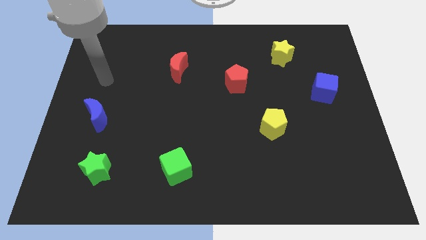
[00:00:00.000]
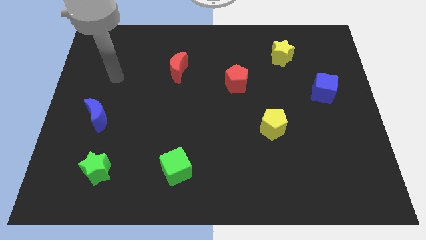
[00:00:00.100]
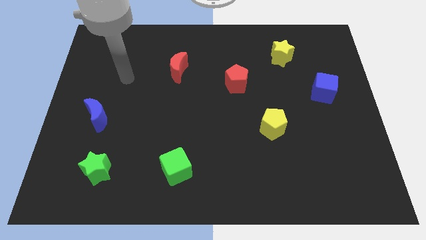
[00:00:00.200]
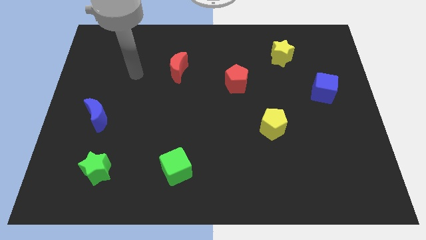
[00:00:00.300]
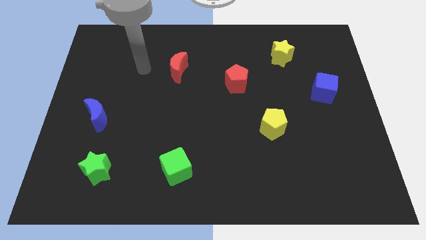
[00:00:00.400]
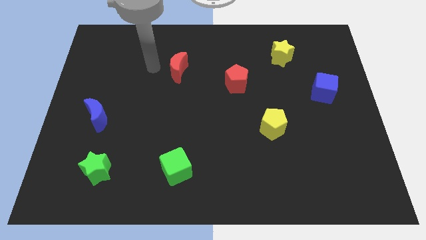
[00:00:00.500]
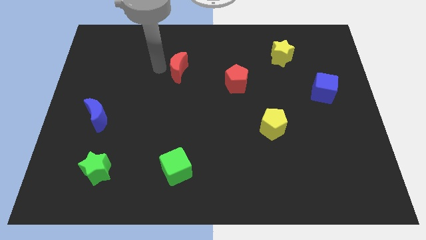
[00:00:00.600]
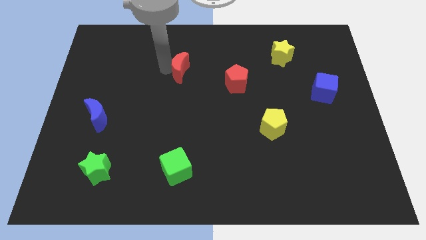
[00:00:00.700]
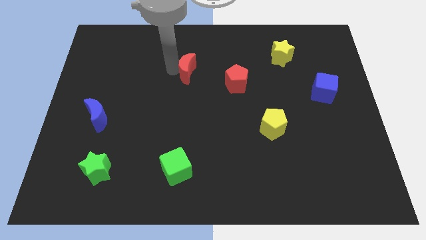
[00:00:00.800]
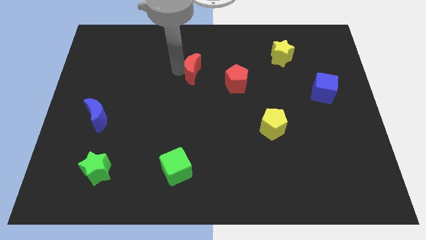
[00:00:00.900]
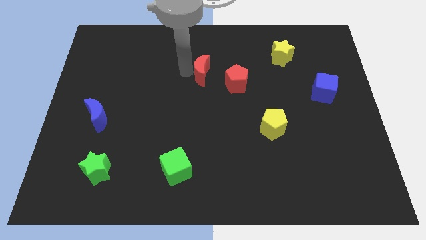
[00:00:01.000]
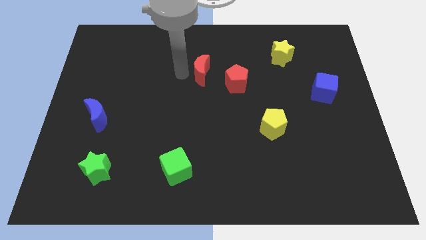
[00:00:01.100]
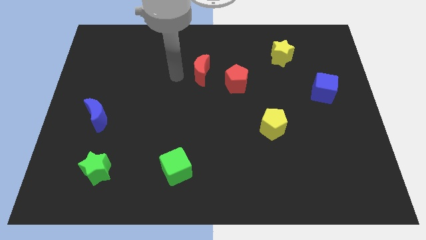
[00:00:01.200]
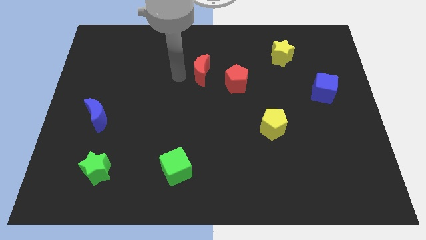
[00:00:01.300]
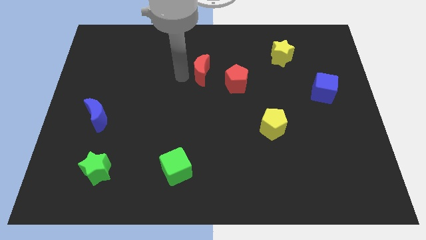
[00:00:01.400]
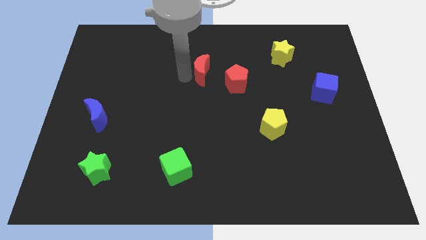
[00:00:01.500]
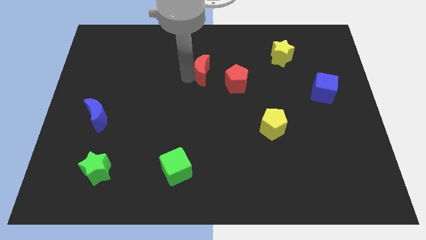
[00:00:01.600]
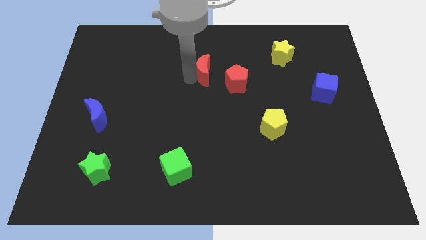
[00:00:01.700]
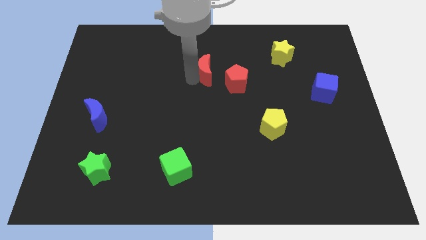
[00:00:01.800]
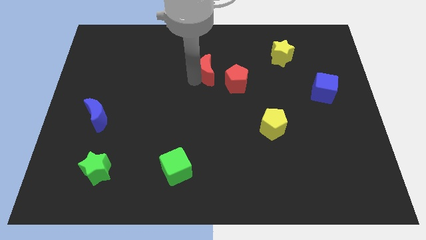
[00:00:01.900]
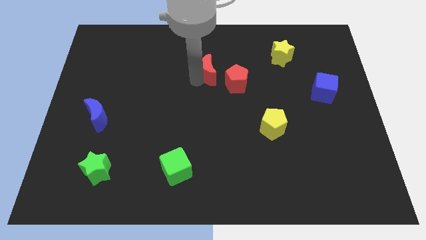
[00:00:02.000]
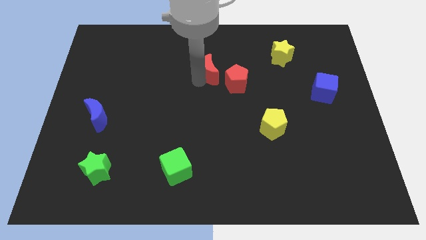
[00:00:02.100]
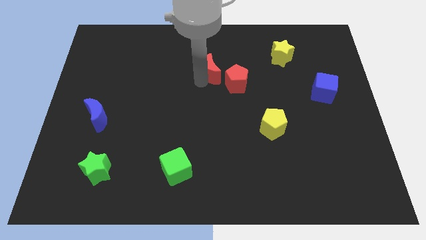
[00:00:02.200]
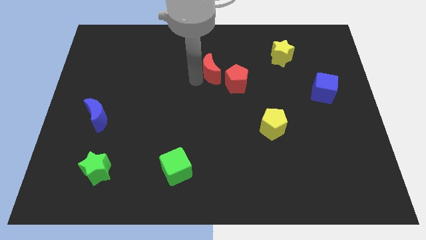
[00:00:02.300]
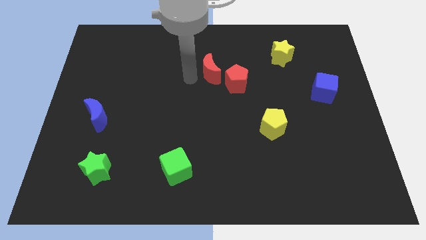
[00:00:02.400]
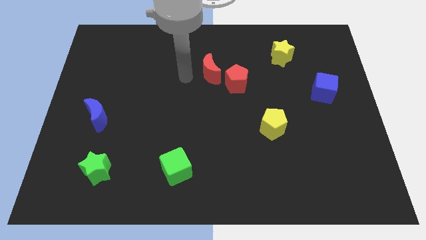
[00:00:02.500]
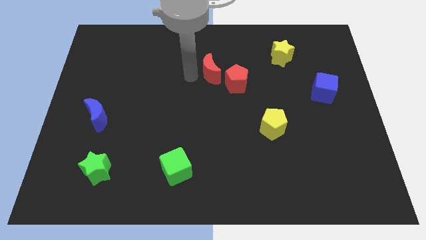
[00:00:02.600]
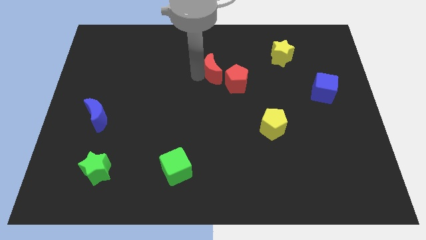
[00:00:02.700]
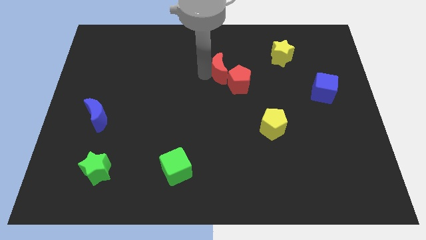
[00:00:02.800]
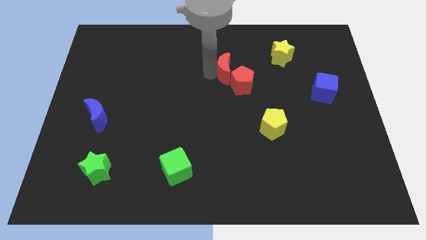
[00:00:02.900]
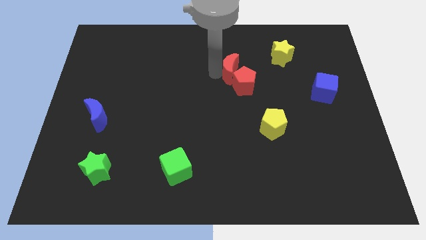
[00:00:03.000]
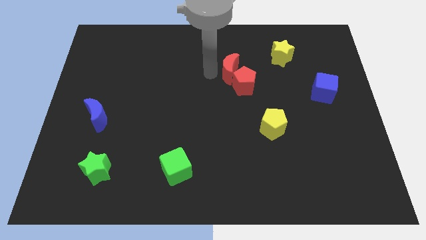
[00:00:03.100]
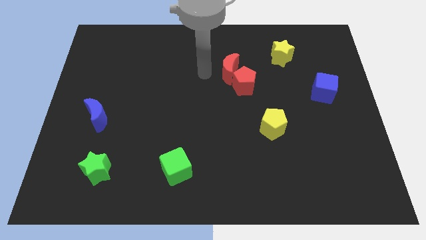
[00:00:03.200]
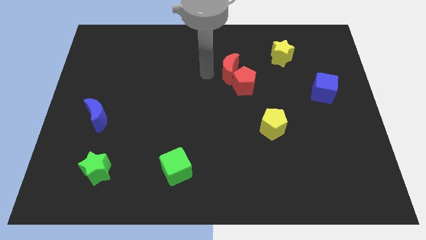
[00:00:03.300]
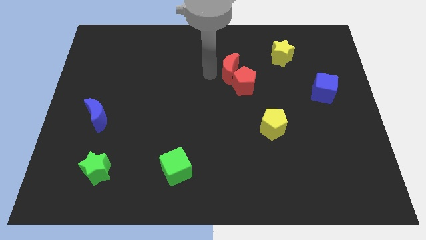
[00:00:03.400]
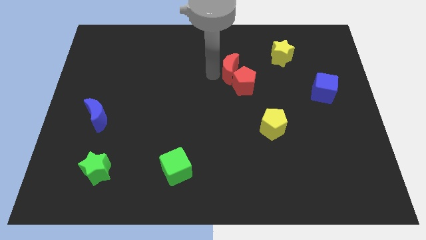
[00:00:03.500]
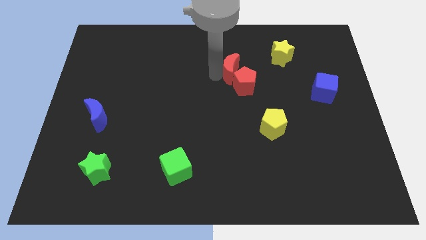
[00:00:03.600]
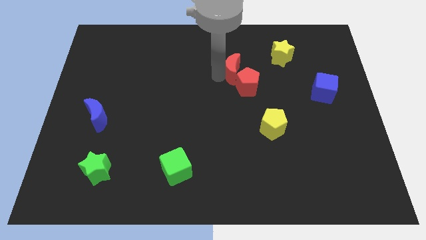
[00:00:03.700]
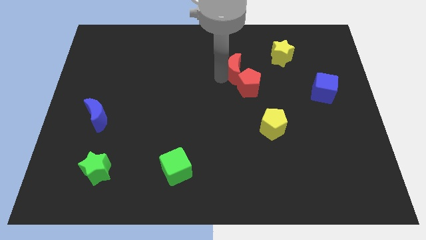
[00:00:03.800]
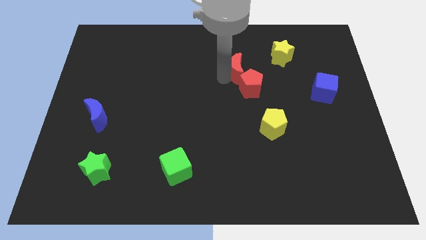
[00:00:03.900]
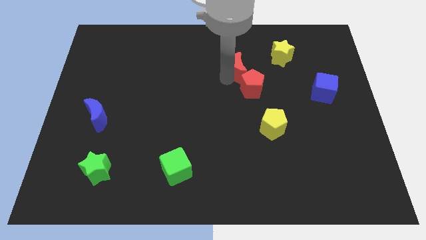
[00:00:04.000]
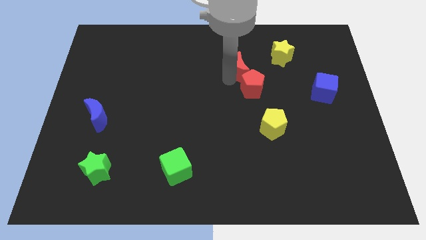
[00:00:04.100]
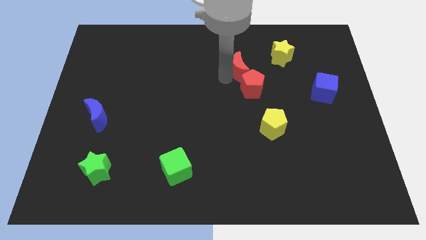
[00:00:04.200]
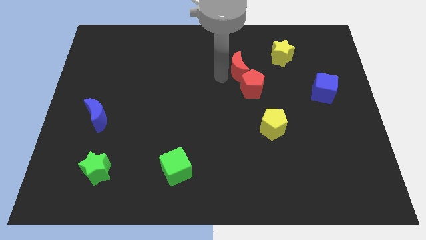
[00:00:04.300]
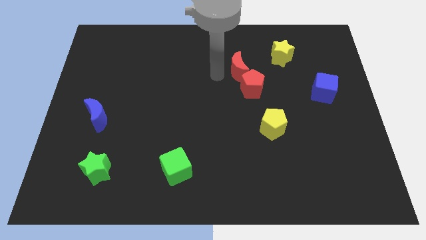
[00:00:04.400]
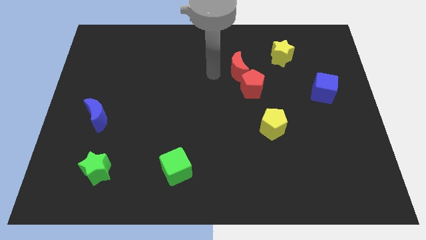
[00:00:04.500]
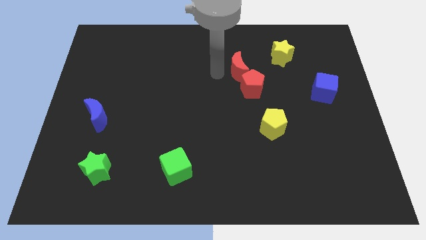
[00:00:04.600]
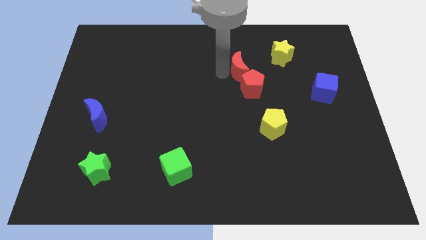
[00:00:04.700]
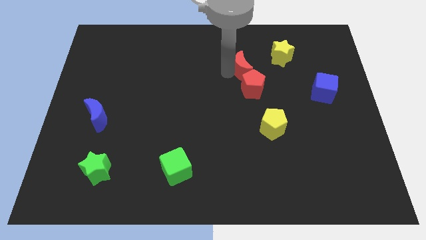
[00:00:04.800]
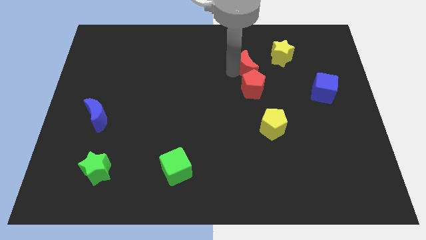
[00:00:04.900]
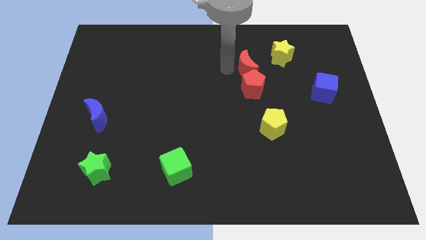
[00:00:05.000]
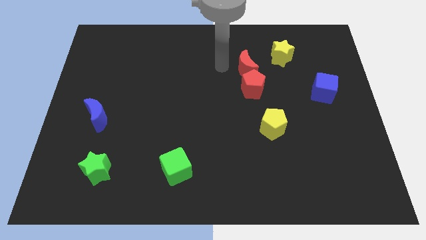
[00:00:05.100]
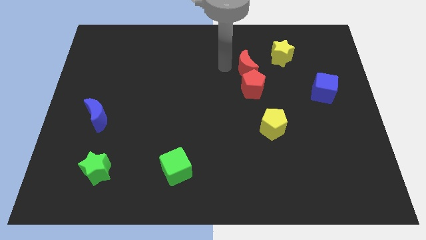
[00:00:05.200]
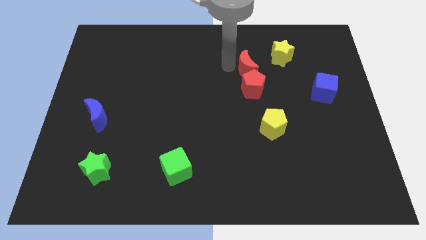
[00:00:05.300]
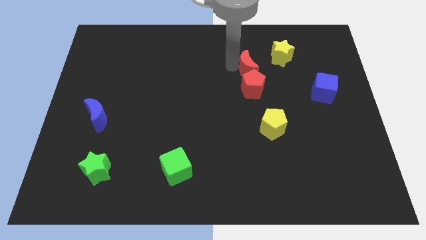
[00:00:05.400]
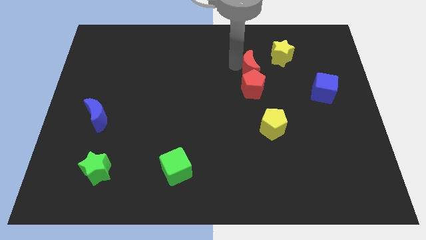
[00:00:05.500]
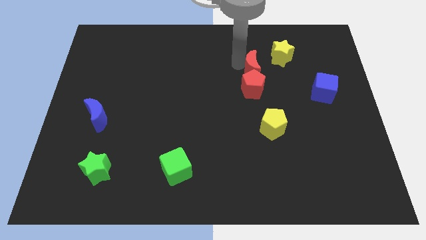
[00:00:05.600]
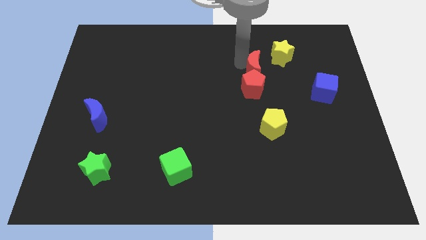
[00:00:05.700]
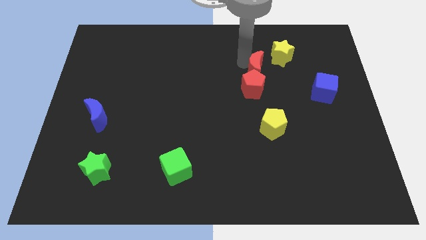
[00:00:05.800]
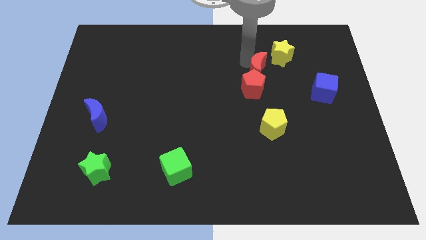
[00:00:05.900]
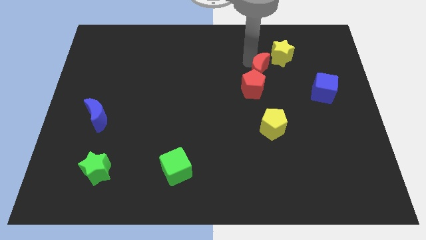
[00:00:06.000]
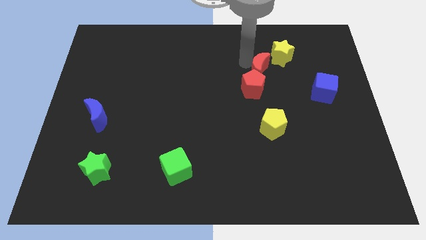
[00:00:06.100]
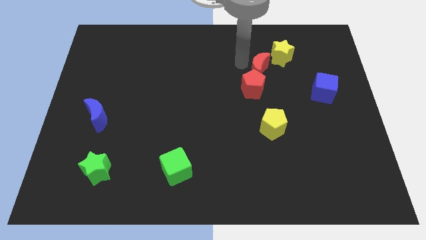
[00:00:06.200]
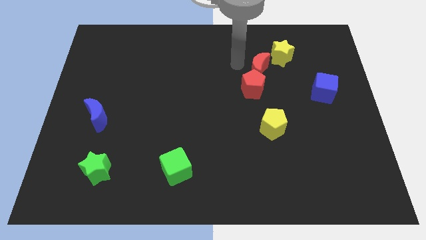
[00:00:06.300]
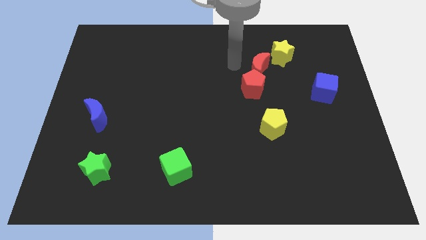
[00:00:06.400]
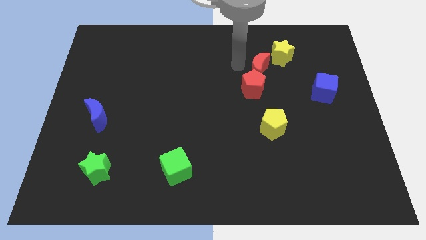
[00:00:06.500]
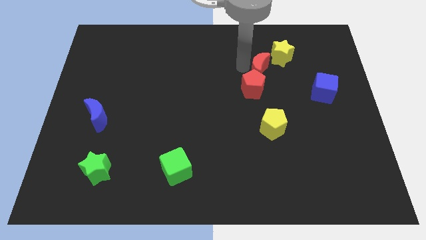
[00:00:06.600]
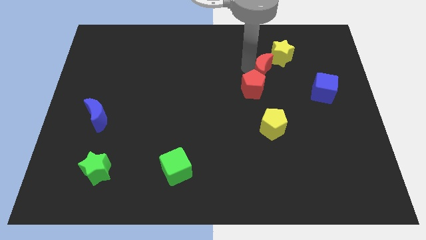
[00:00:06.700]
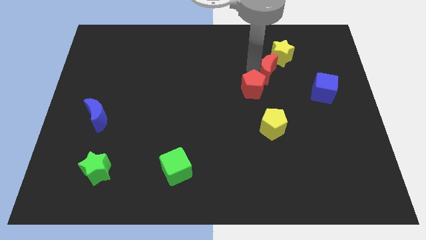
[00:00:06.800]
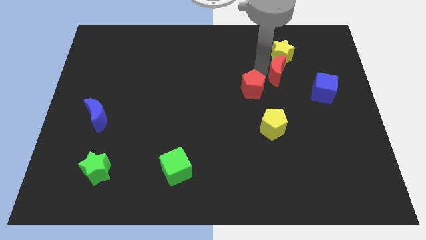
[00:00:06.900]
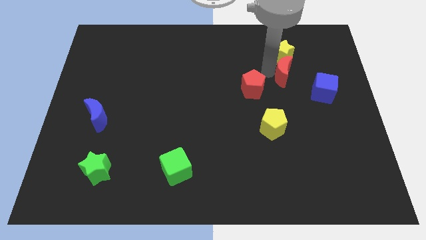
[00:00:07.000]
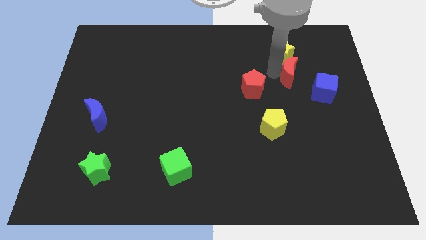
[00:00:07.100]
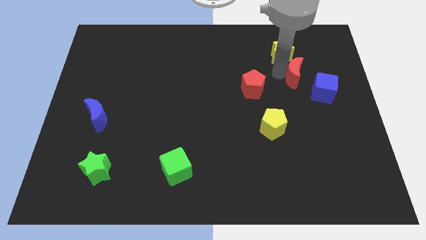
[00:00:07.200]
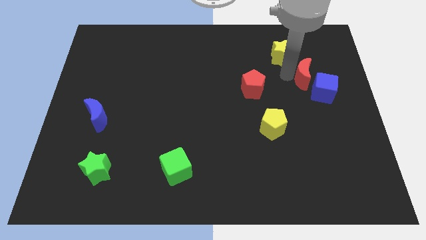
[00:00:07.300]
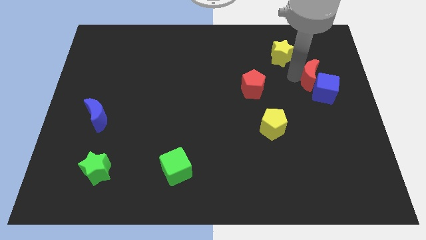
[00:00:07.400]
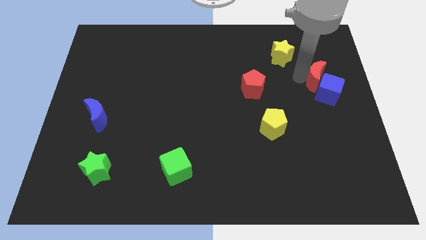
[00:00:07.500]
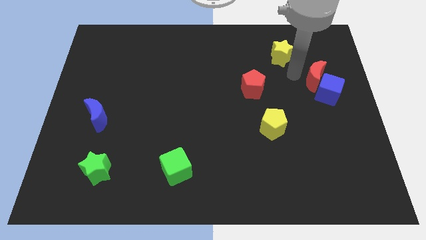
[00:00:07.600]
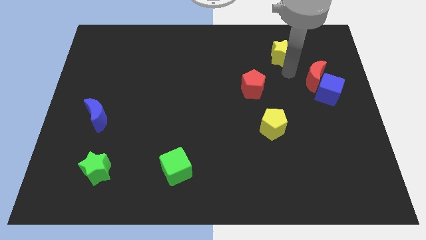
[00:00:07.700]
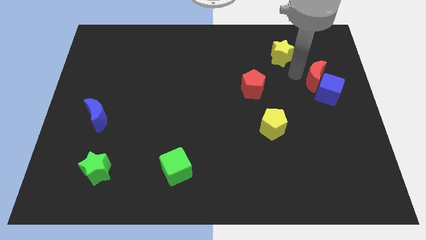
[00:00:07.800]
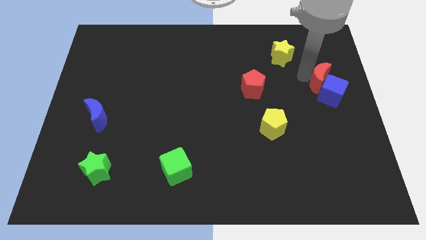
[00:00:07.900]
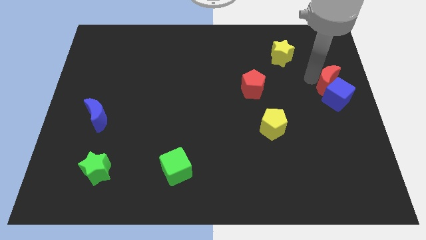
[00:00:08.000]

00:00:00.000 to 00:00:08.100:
put the red moon to the right side
